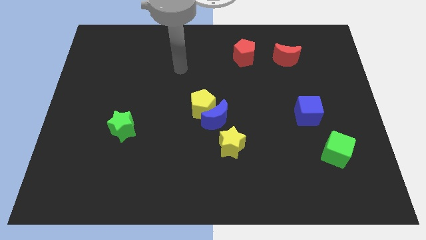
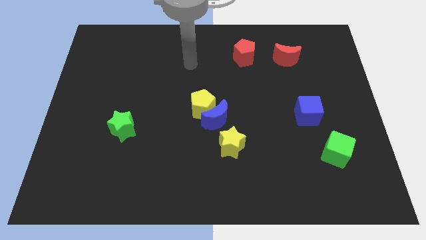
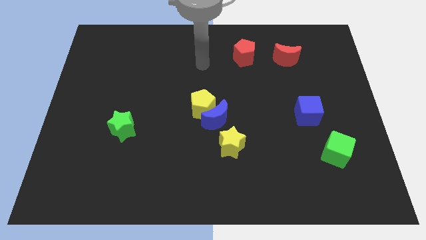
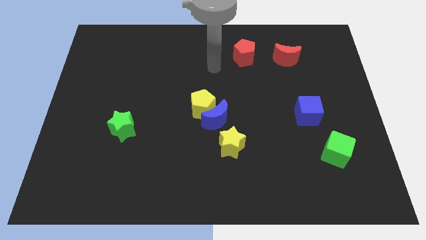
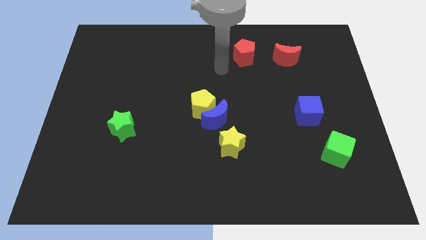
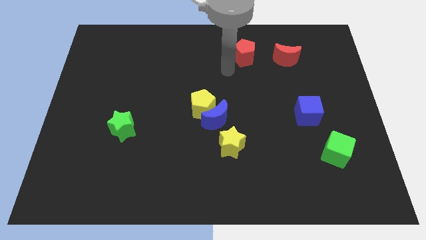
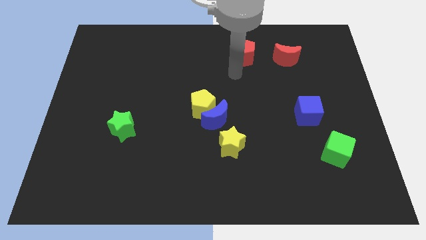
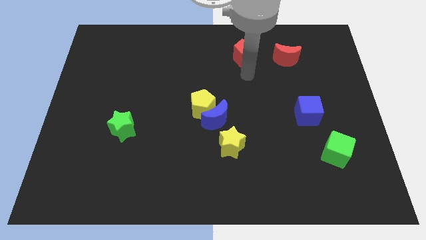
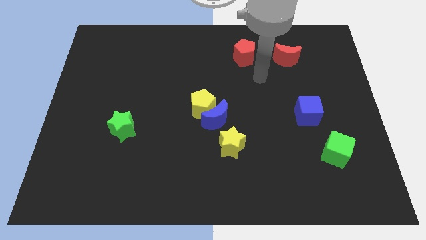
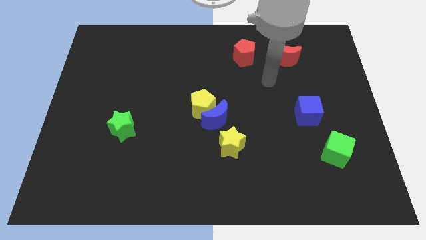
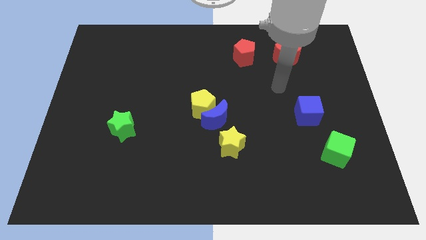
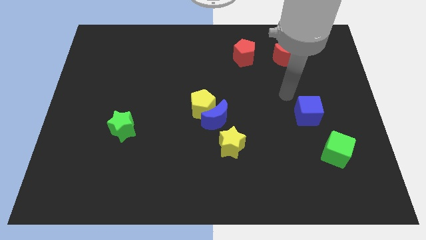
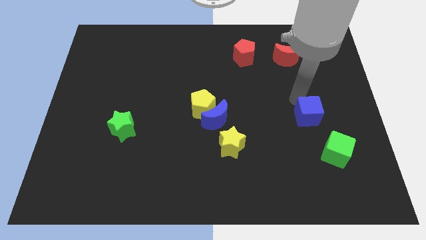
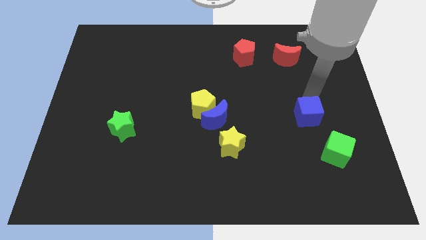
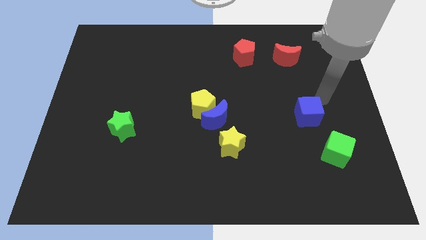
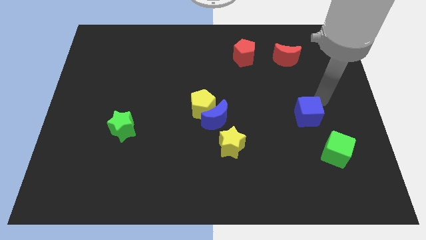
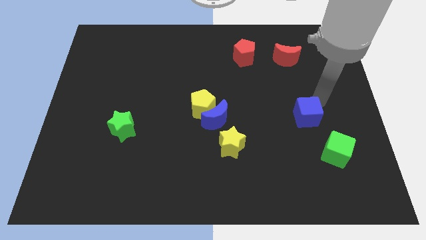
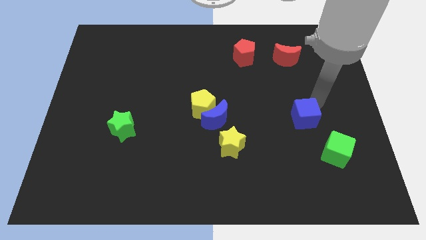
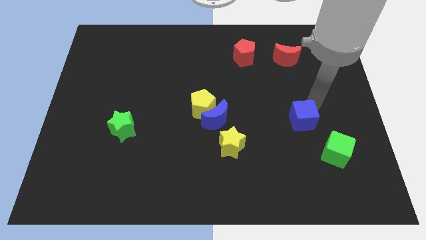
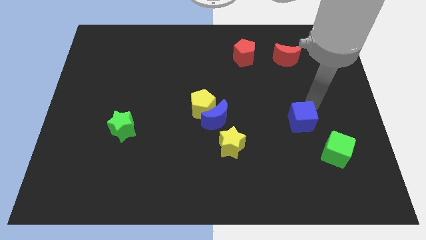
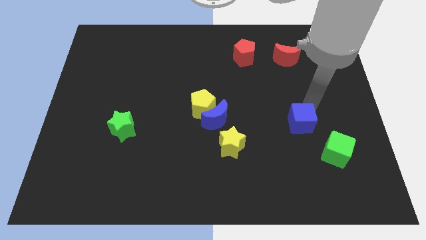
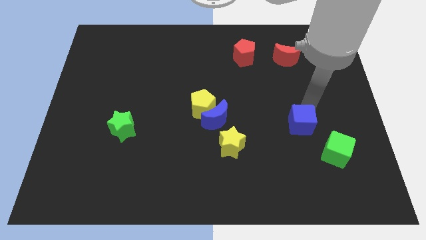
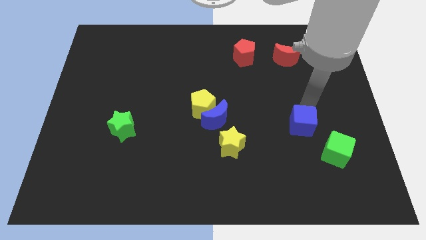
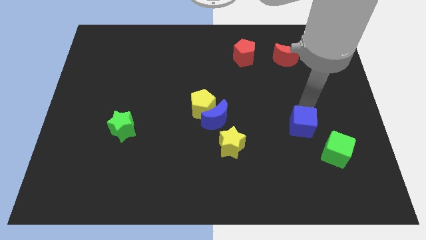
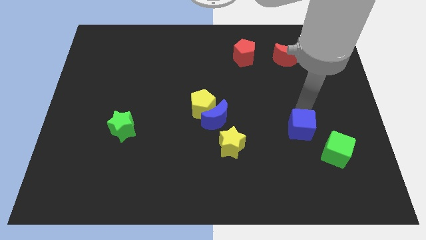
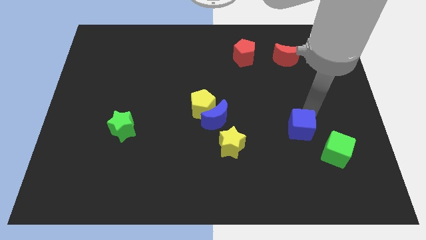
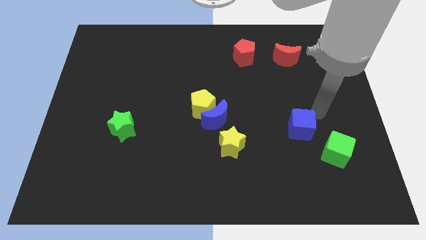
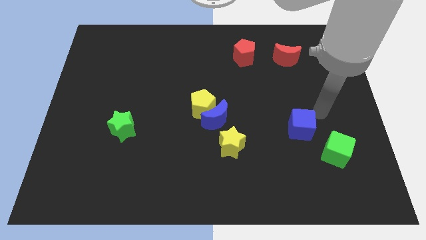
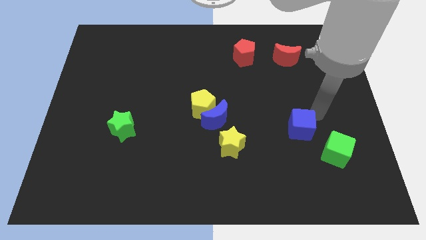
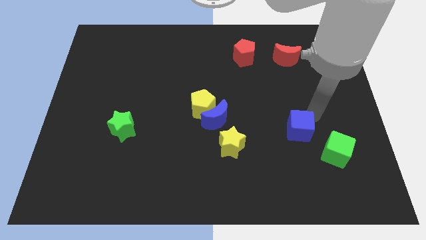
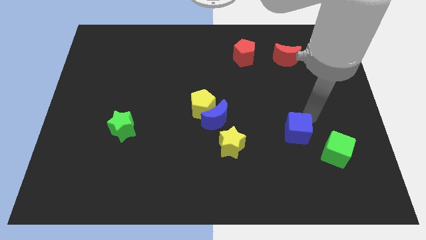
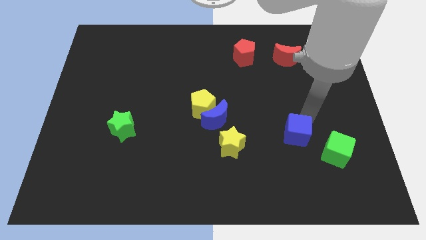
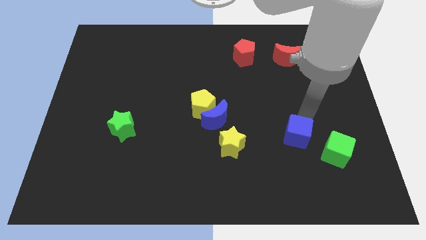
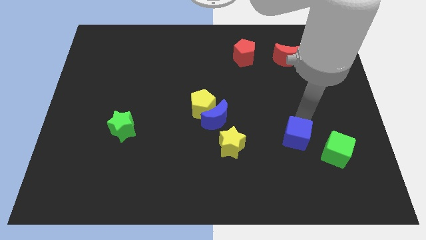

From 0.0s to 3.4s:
slightly move the blue cube downwards and left diagonally

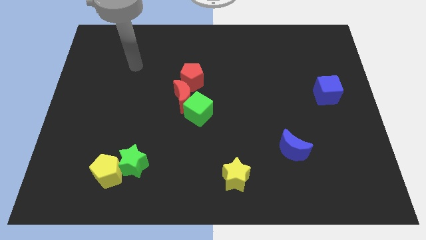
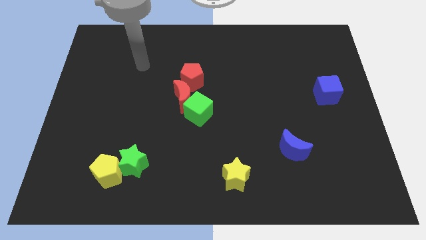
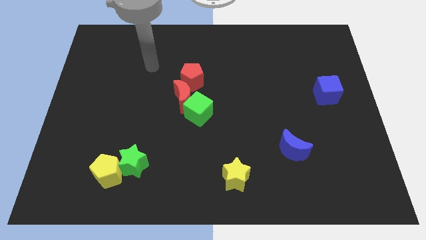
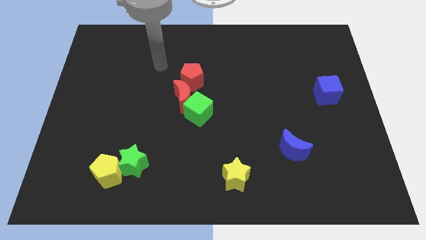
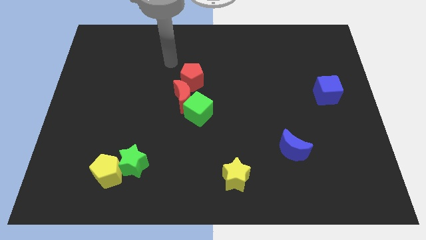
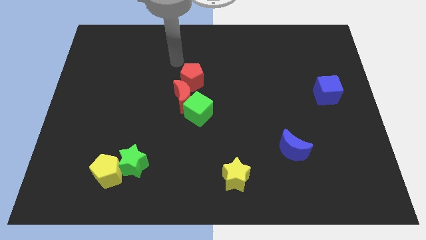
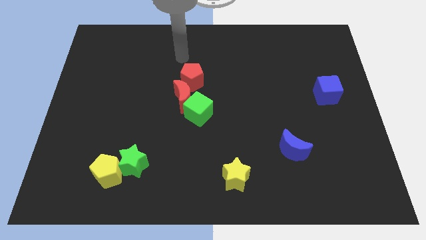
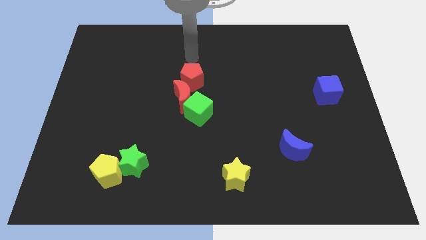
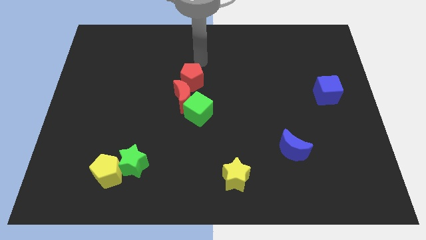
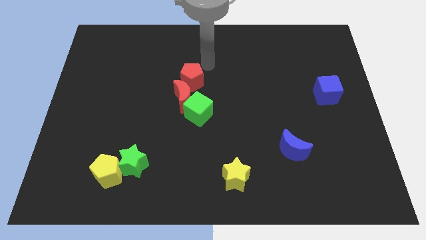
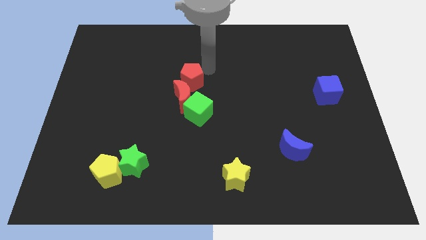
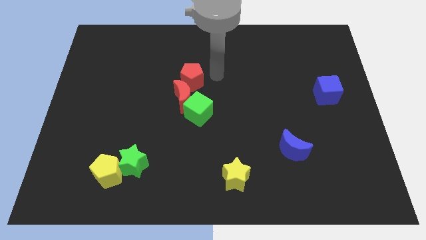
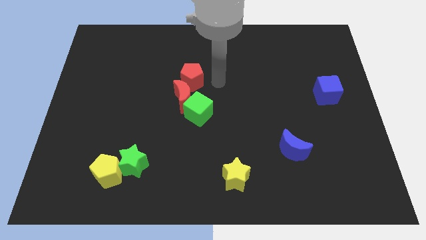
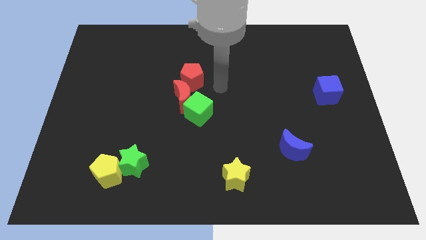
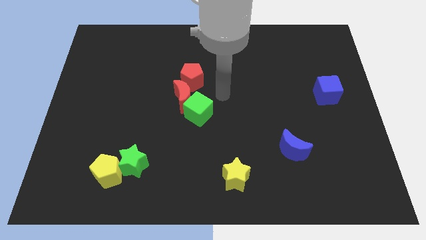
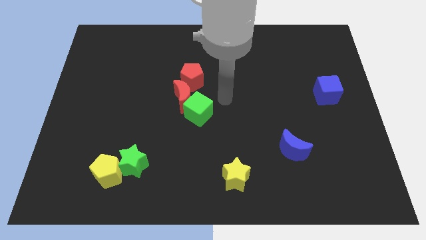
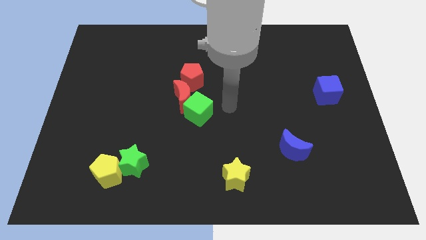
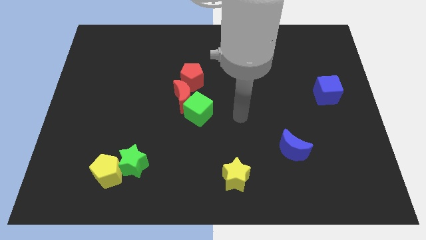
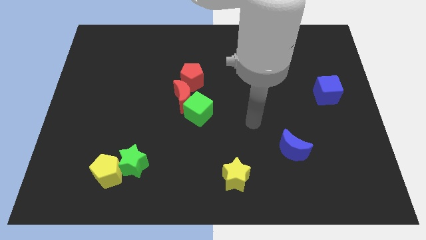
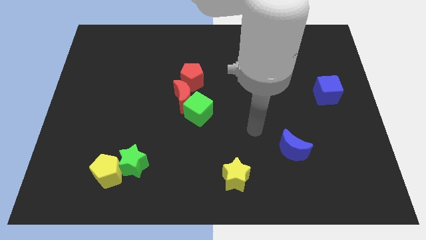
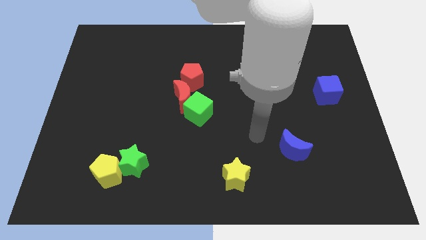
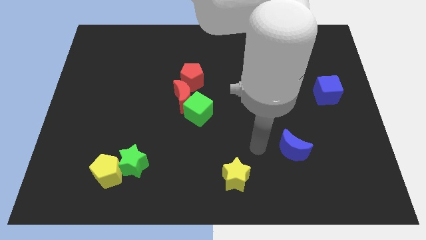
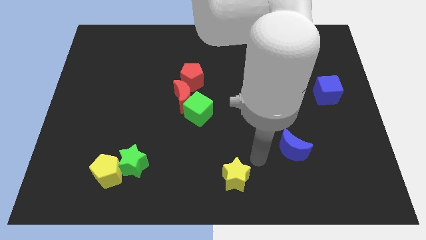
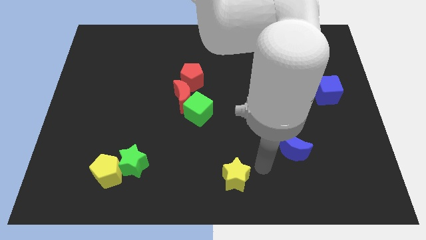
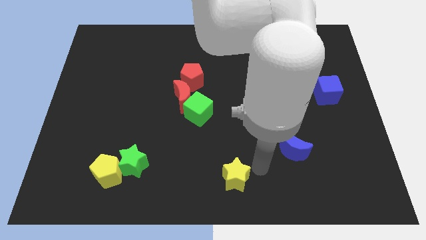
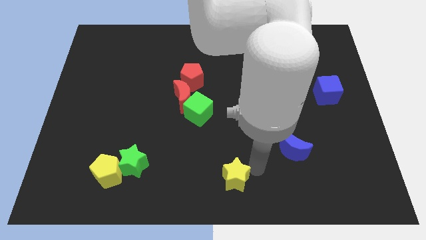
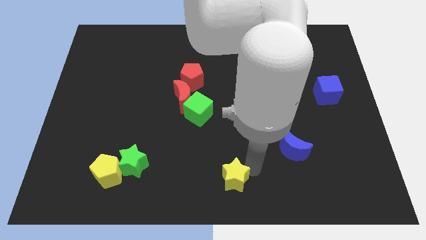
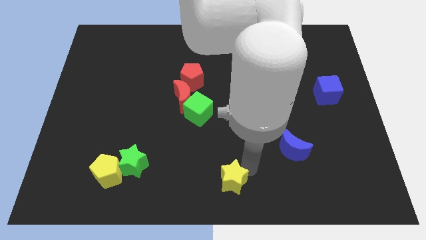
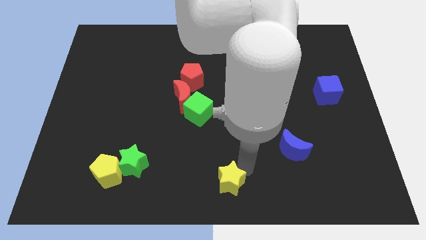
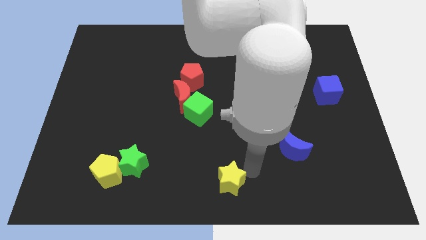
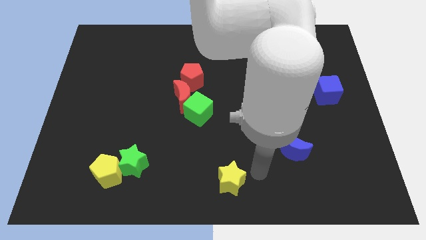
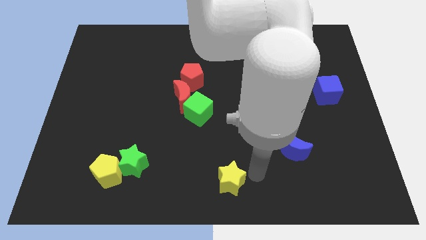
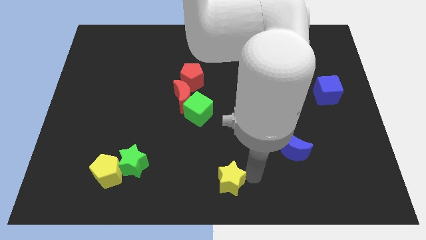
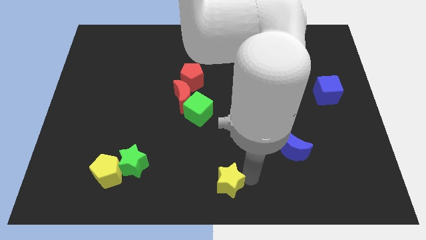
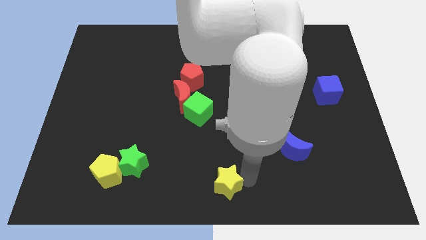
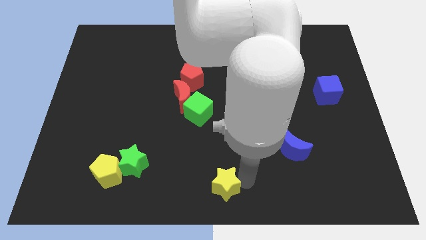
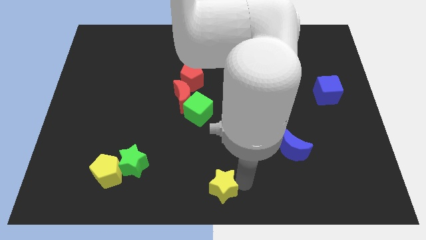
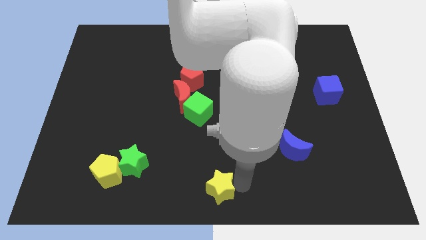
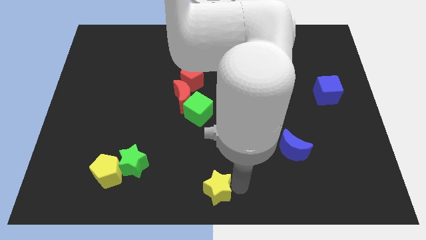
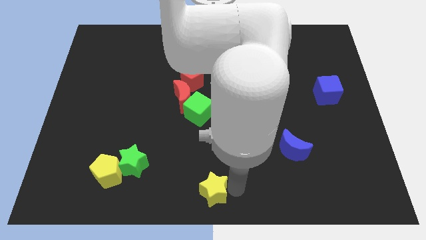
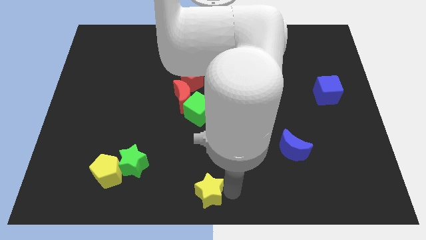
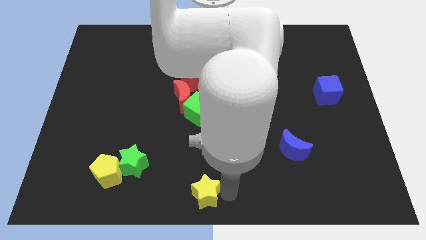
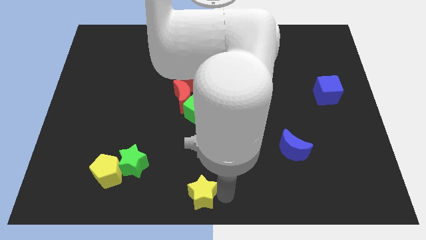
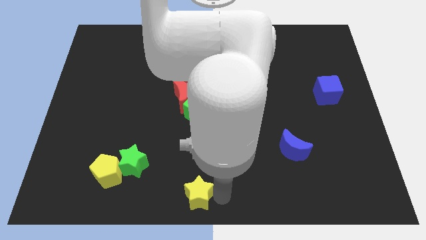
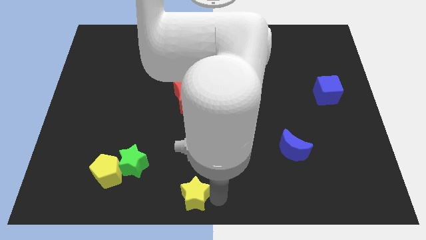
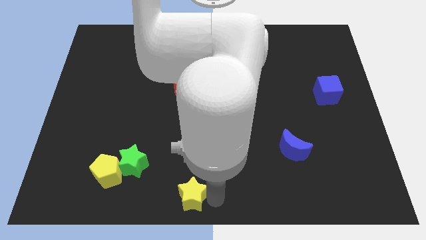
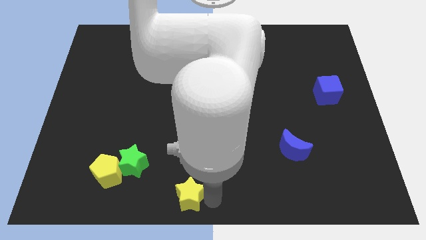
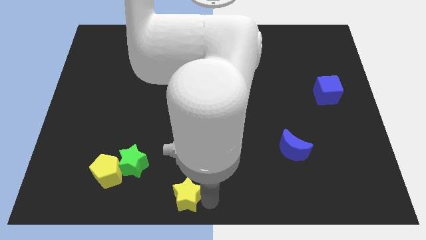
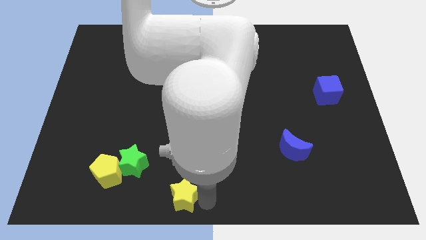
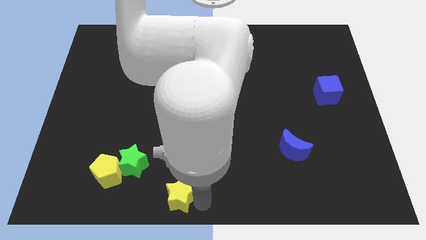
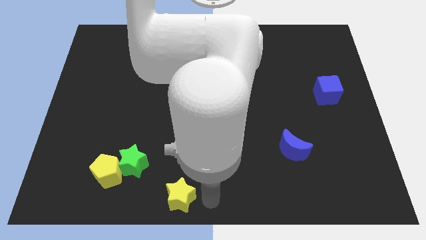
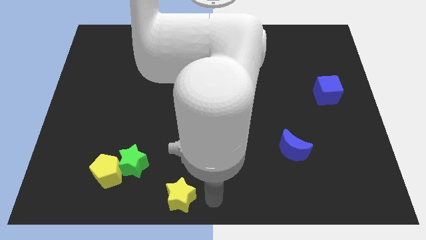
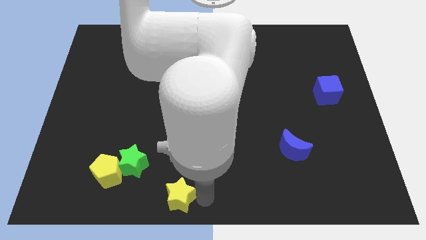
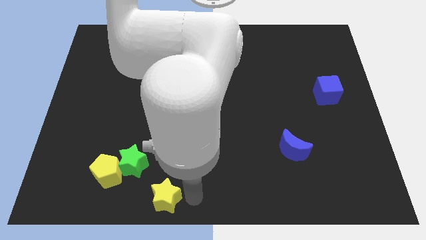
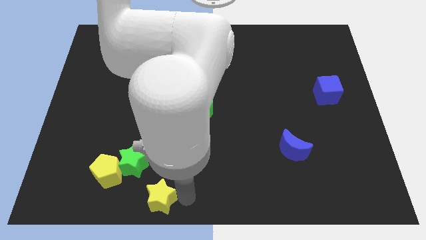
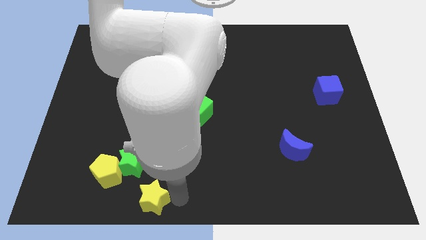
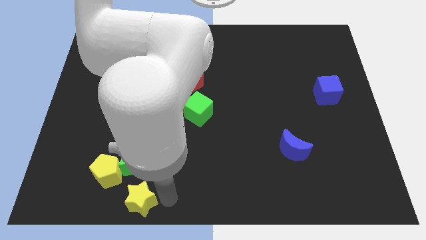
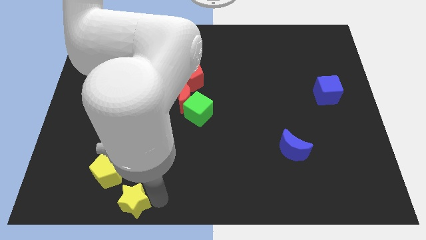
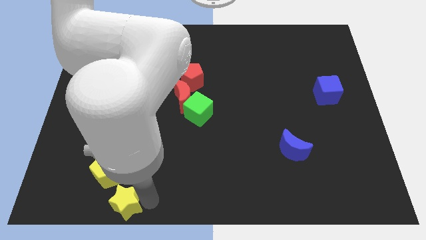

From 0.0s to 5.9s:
move the yellow star to the left
